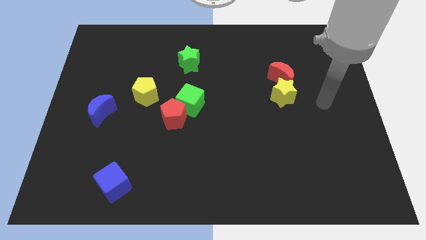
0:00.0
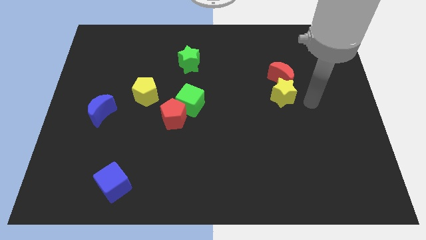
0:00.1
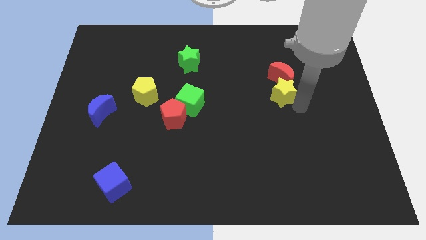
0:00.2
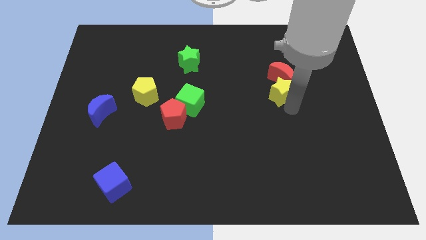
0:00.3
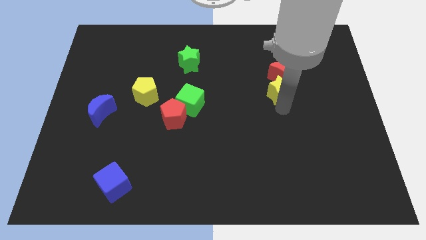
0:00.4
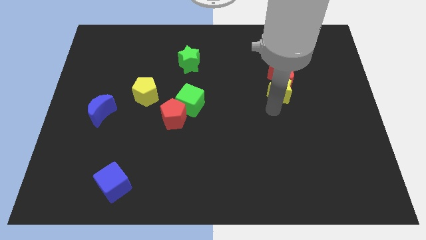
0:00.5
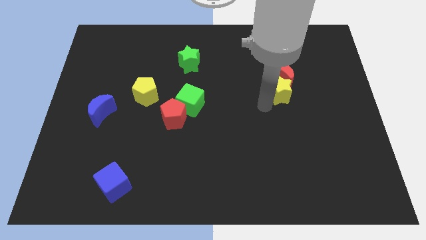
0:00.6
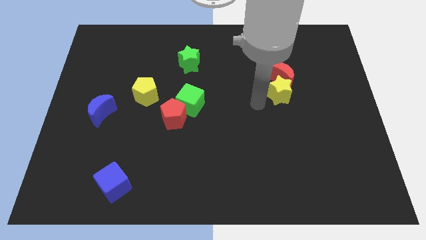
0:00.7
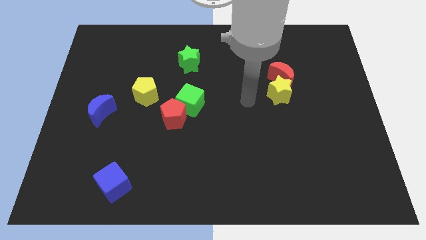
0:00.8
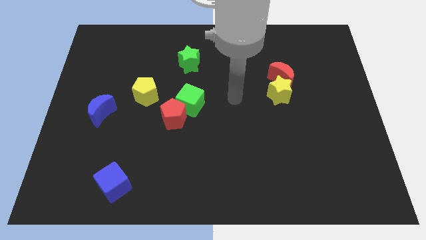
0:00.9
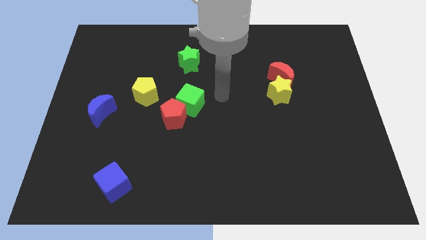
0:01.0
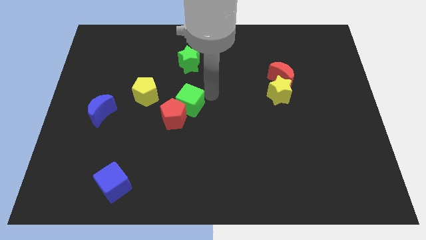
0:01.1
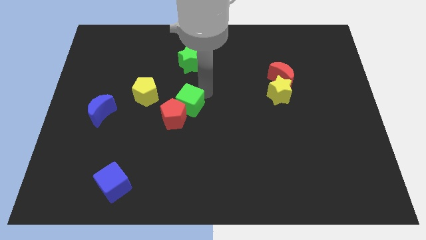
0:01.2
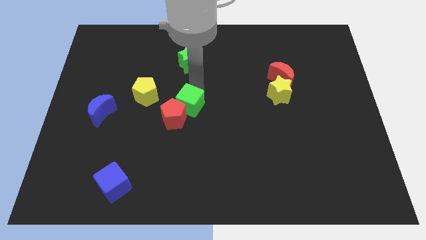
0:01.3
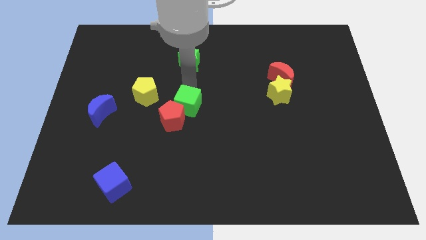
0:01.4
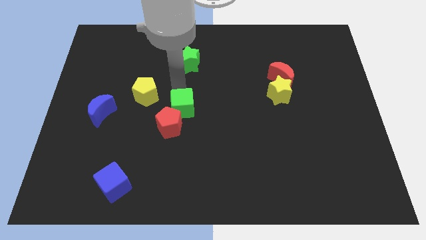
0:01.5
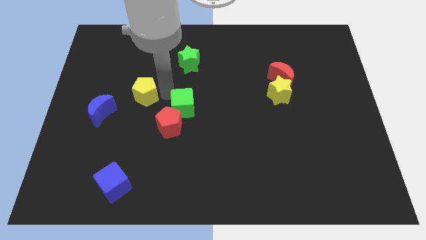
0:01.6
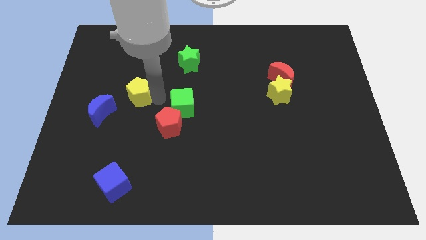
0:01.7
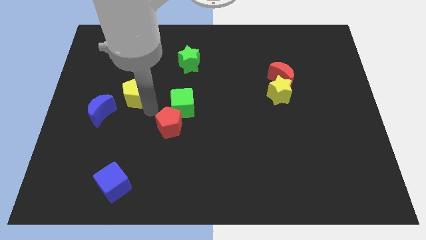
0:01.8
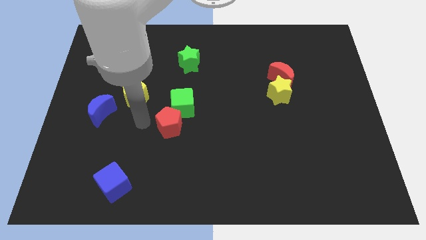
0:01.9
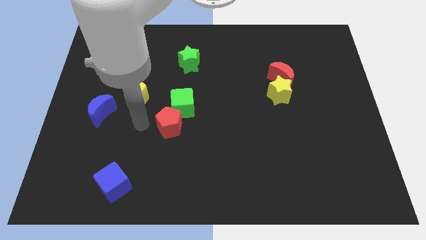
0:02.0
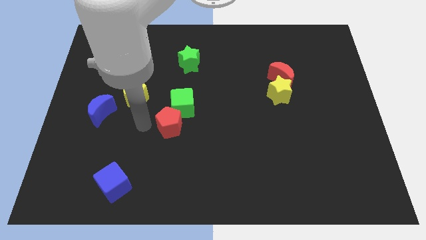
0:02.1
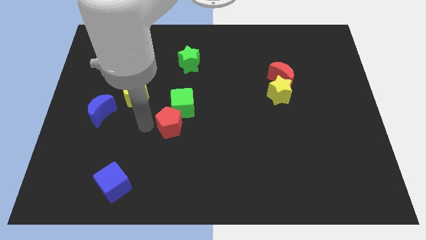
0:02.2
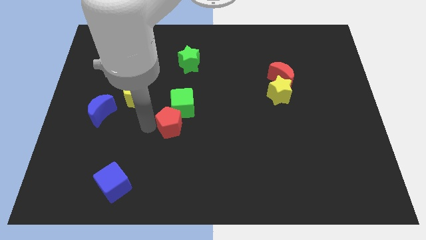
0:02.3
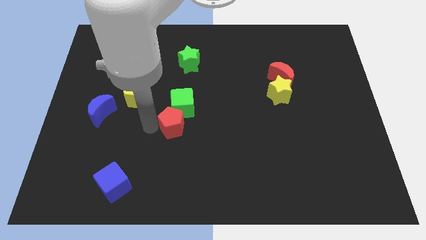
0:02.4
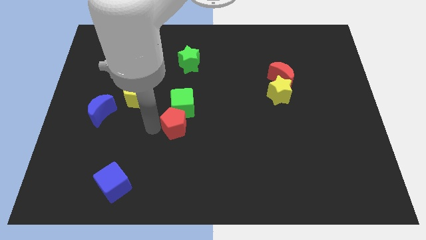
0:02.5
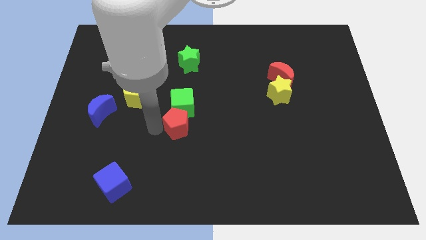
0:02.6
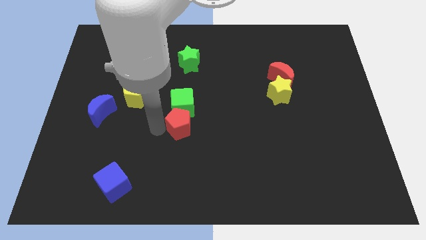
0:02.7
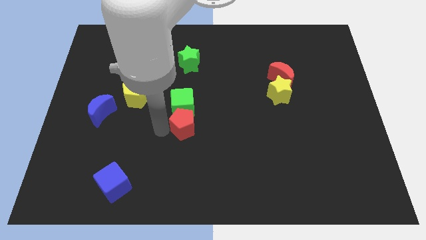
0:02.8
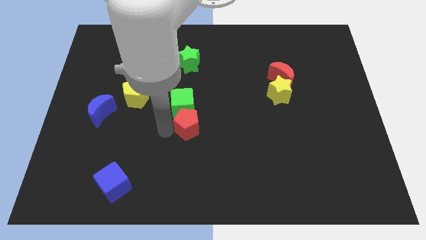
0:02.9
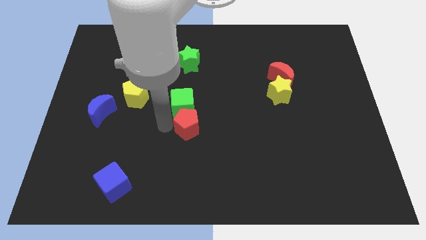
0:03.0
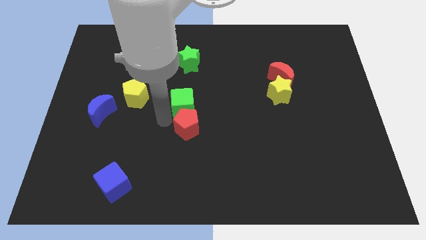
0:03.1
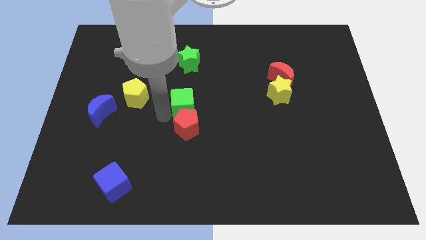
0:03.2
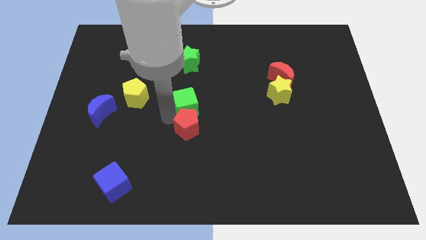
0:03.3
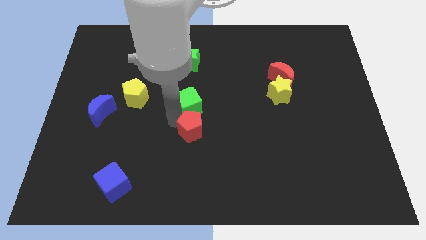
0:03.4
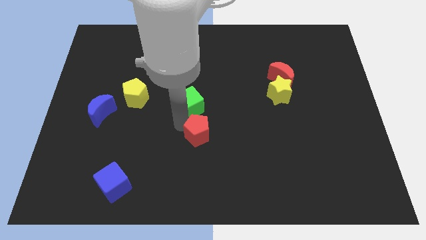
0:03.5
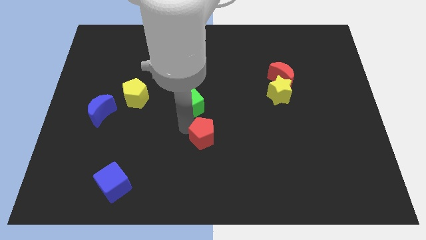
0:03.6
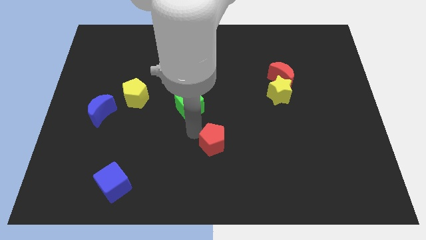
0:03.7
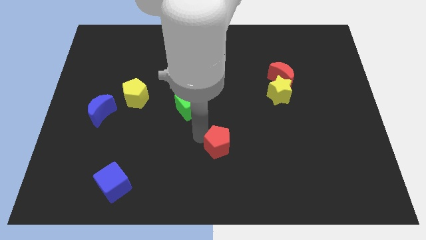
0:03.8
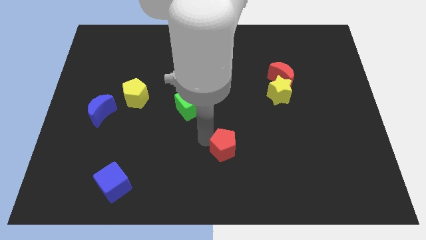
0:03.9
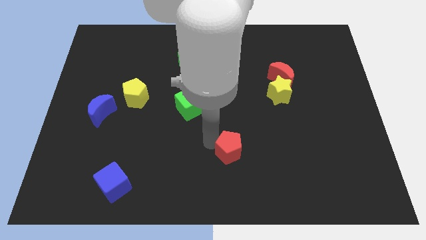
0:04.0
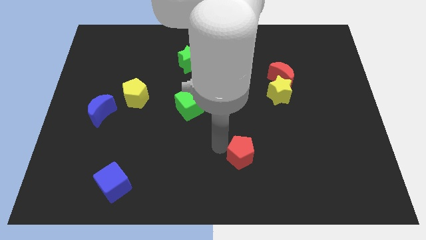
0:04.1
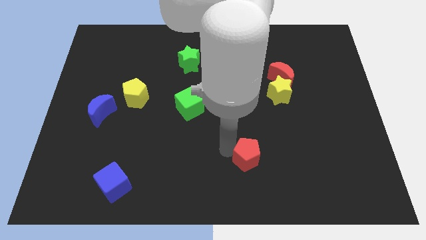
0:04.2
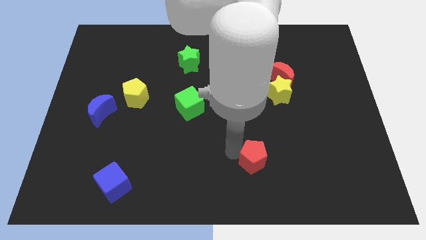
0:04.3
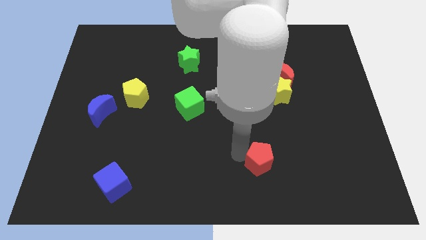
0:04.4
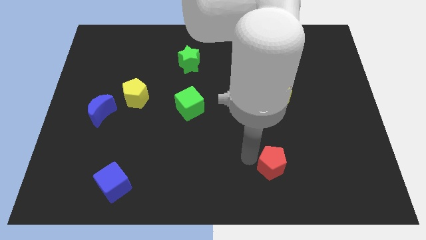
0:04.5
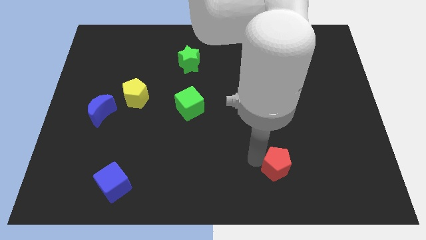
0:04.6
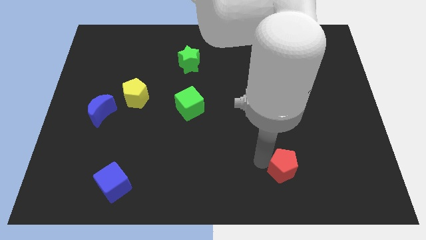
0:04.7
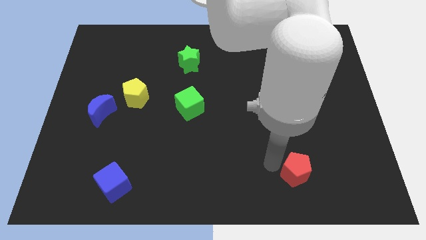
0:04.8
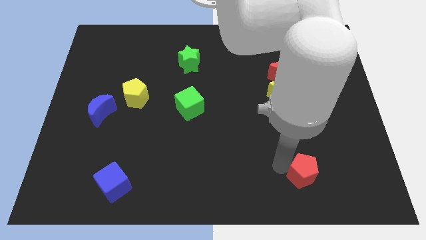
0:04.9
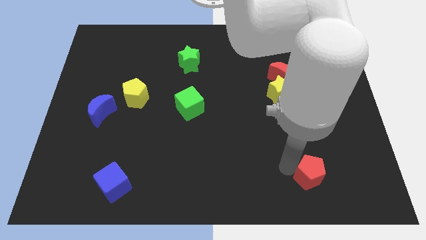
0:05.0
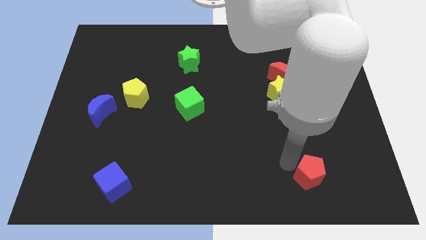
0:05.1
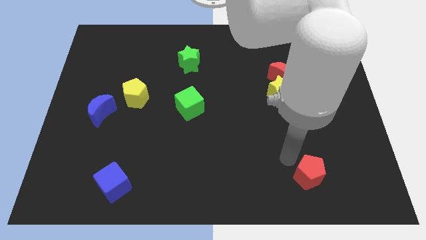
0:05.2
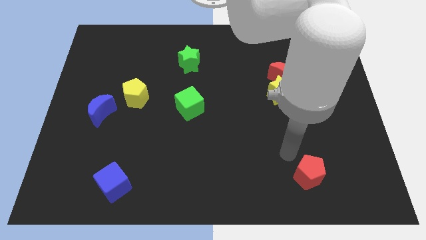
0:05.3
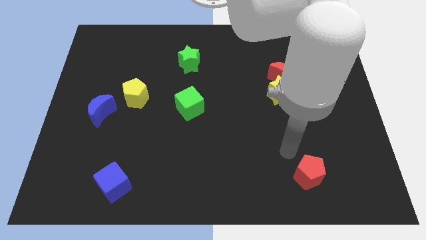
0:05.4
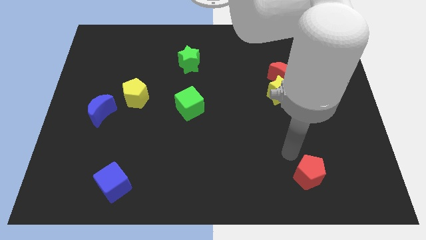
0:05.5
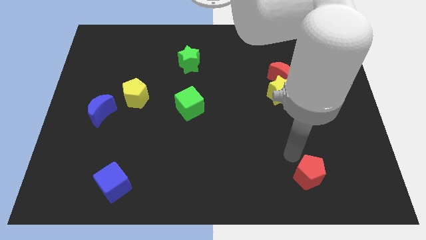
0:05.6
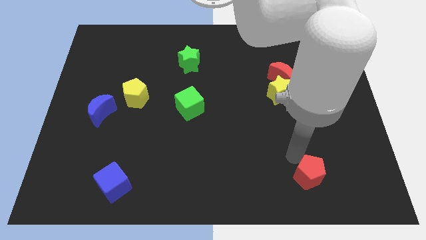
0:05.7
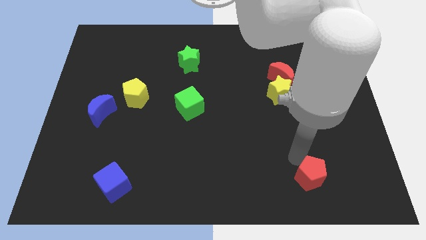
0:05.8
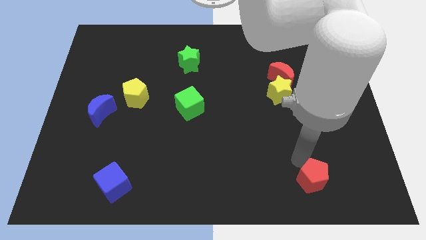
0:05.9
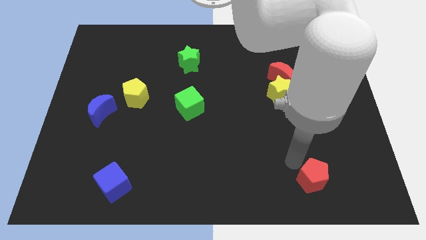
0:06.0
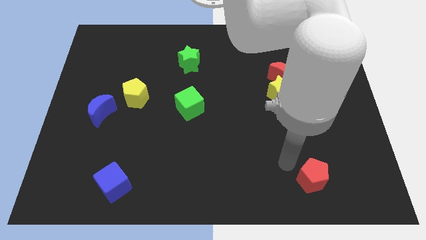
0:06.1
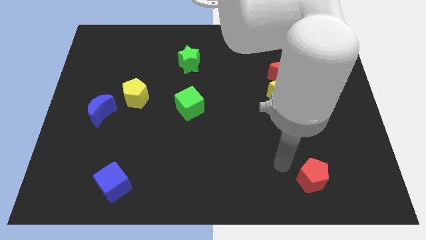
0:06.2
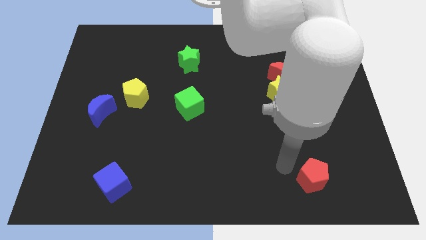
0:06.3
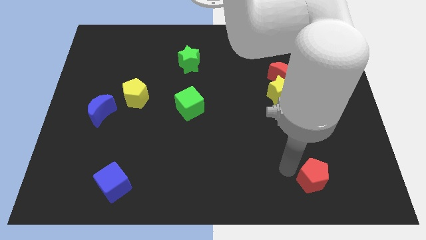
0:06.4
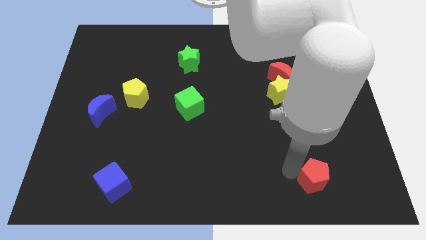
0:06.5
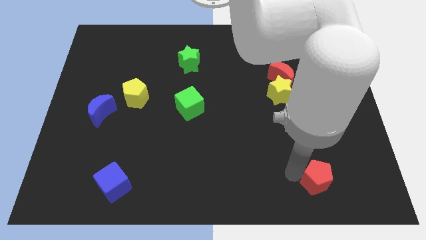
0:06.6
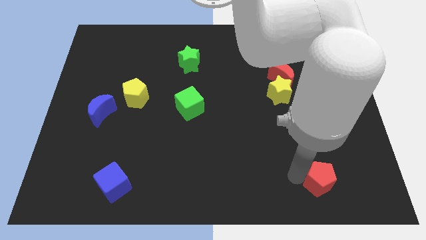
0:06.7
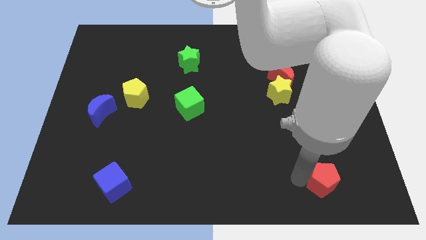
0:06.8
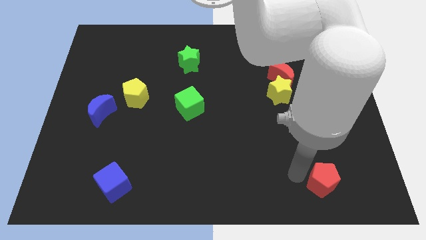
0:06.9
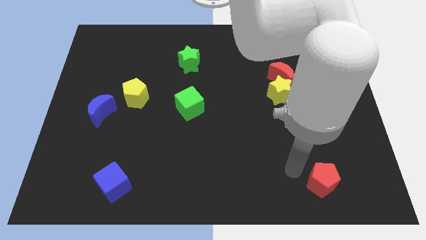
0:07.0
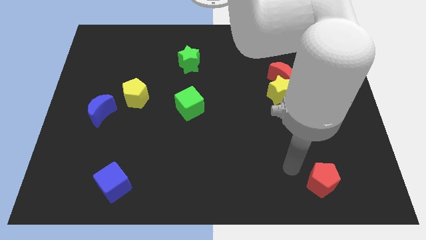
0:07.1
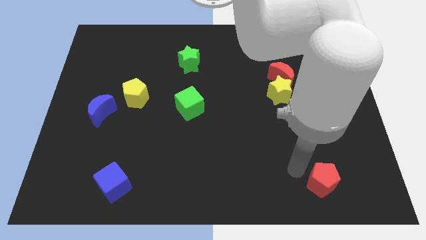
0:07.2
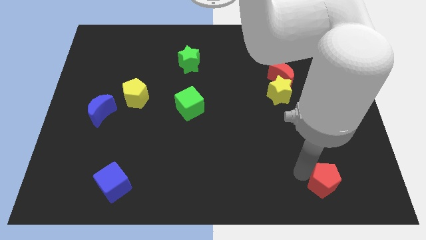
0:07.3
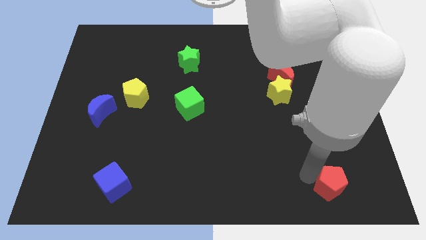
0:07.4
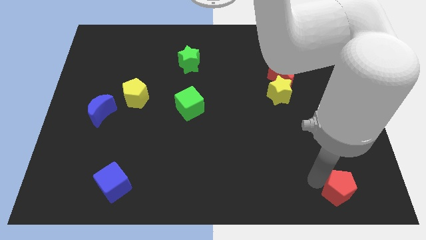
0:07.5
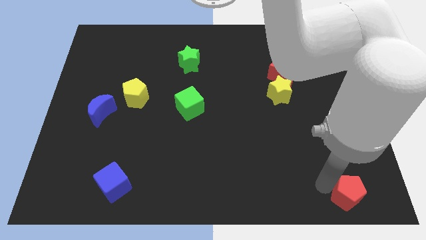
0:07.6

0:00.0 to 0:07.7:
slide the red pentagon to the lower right corner
